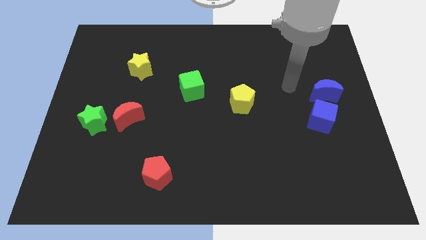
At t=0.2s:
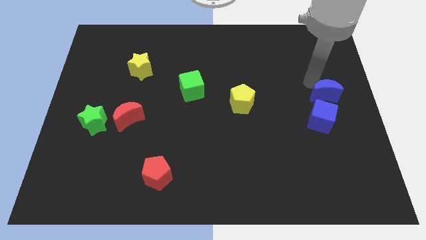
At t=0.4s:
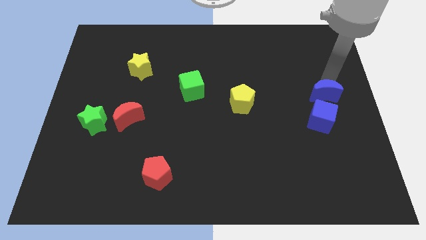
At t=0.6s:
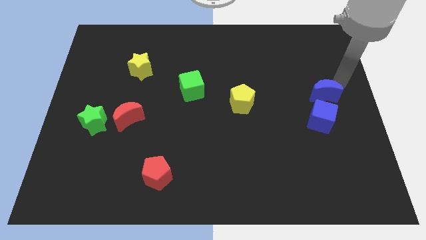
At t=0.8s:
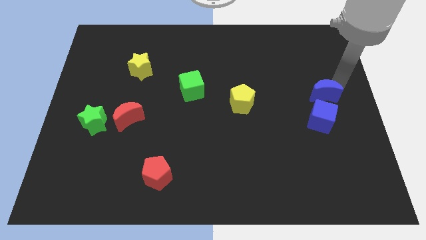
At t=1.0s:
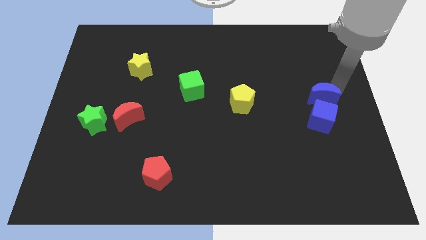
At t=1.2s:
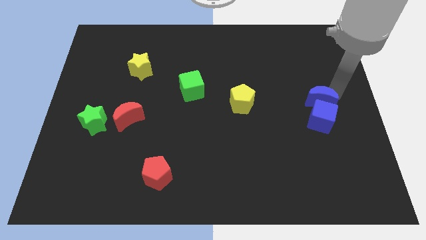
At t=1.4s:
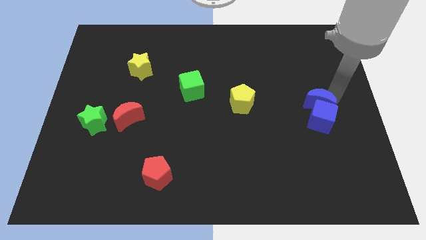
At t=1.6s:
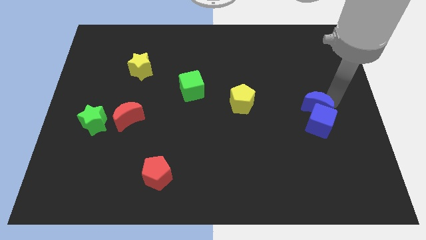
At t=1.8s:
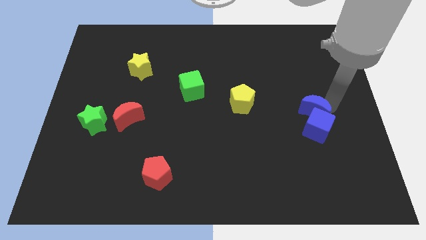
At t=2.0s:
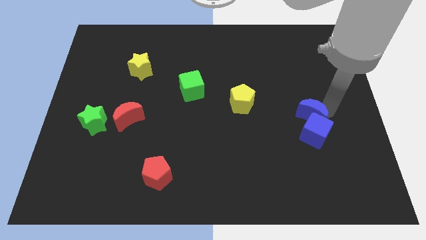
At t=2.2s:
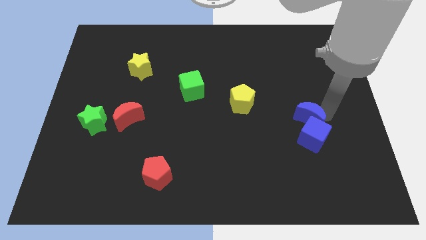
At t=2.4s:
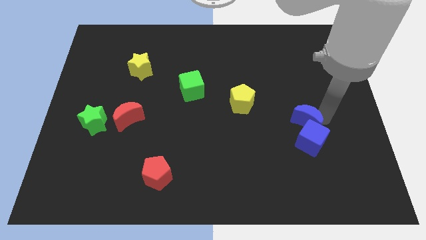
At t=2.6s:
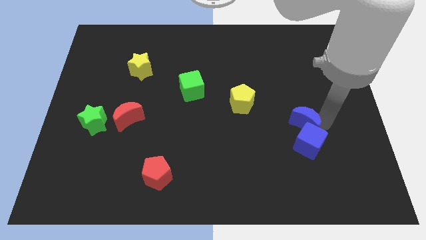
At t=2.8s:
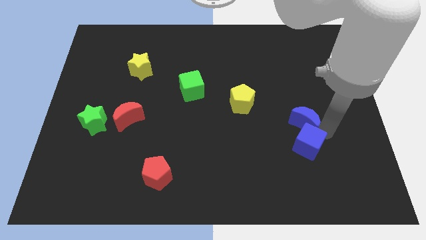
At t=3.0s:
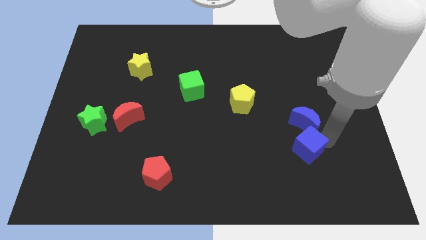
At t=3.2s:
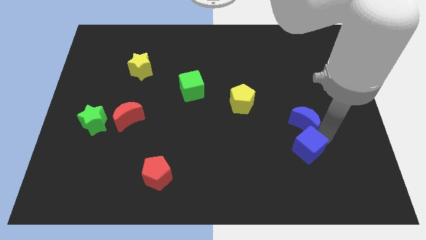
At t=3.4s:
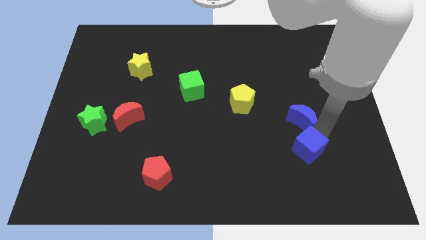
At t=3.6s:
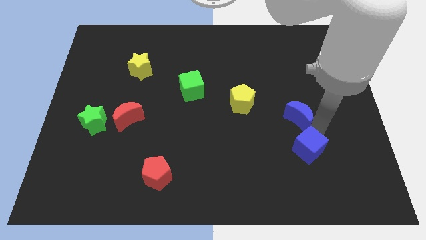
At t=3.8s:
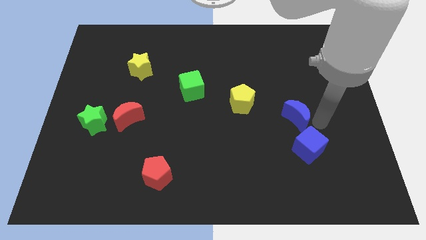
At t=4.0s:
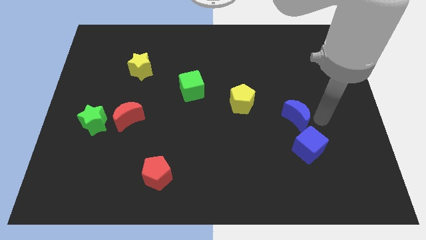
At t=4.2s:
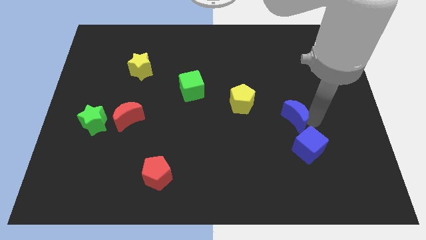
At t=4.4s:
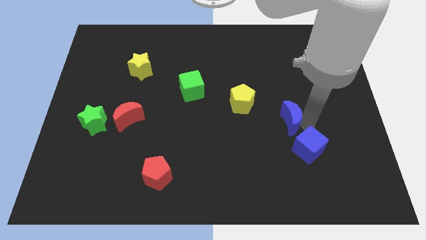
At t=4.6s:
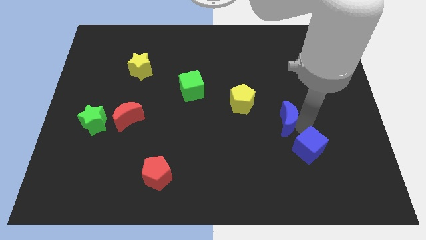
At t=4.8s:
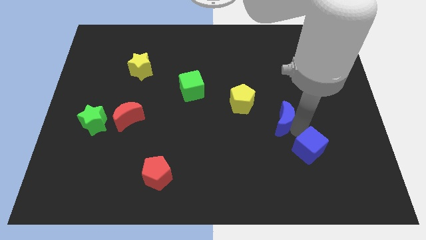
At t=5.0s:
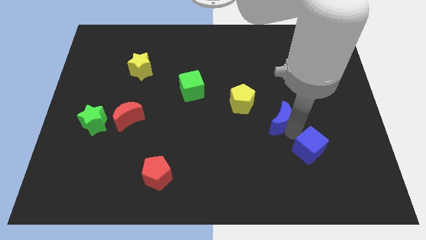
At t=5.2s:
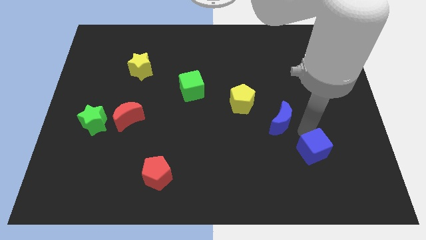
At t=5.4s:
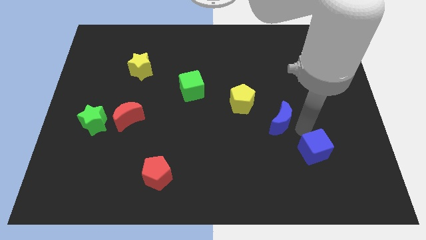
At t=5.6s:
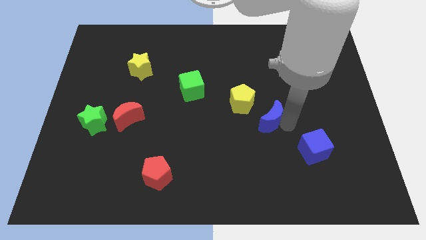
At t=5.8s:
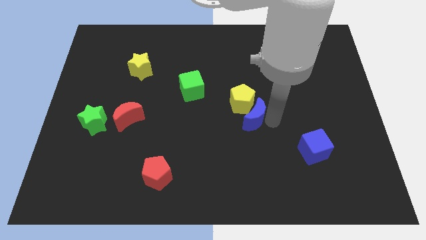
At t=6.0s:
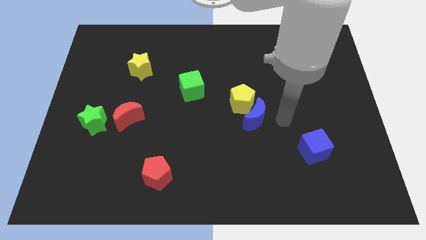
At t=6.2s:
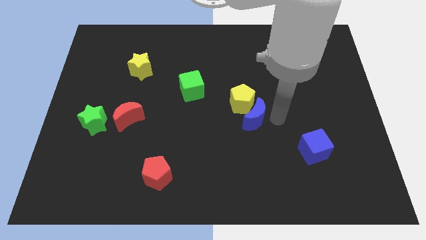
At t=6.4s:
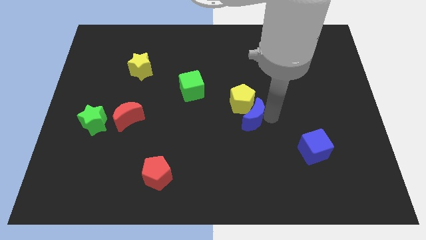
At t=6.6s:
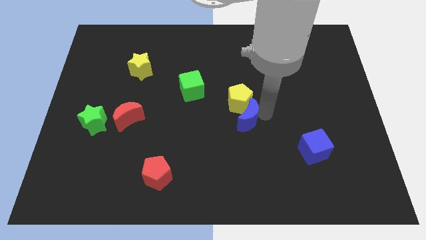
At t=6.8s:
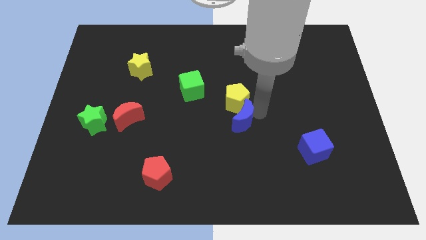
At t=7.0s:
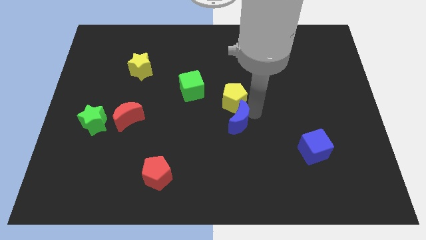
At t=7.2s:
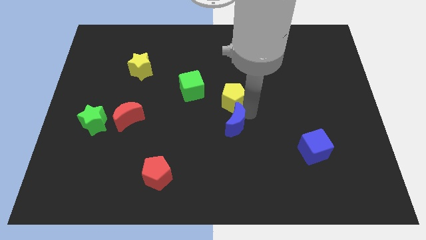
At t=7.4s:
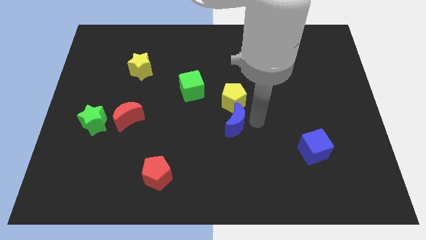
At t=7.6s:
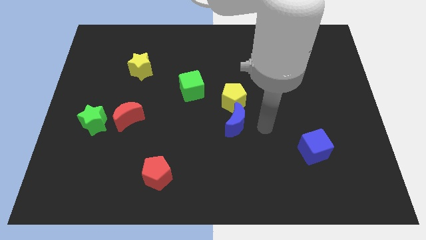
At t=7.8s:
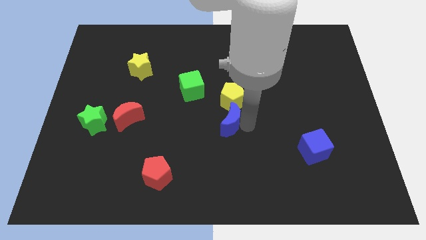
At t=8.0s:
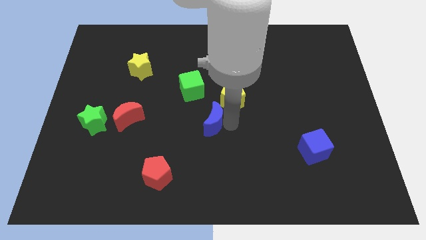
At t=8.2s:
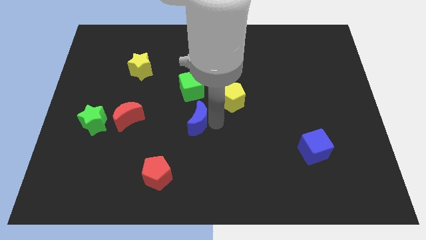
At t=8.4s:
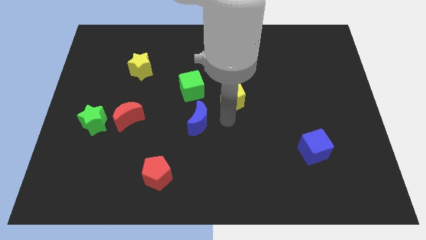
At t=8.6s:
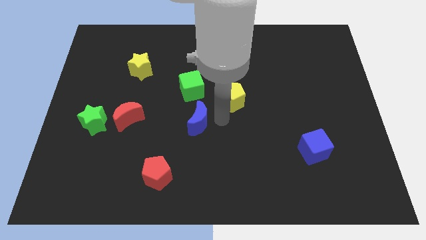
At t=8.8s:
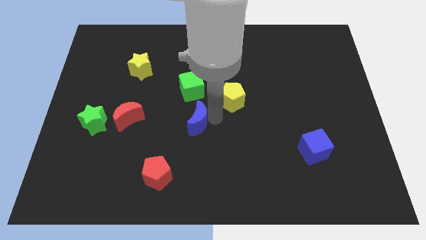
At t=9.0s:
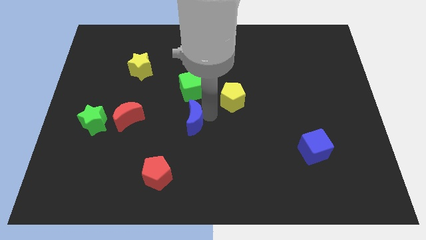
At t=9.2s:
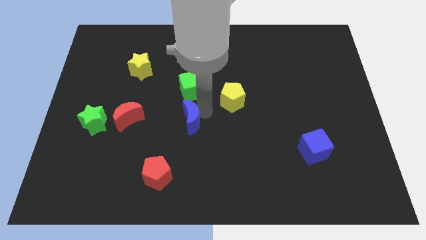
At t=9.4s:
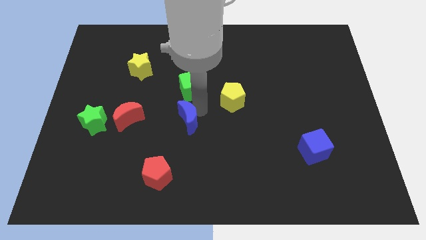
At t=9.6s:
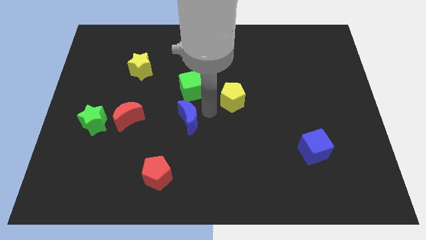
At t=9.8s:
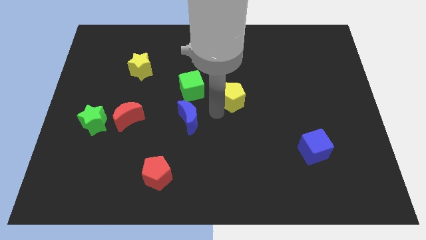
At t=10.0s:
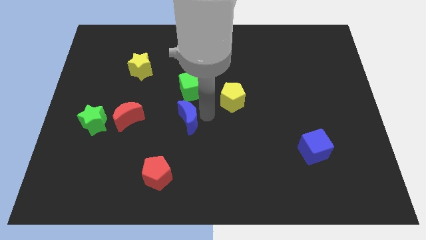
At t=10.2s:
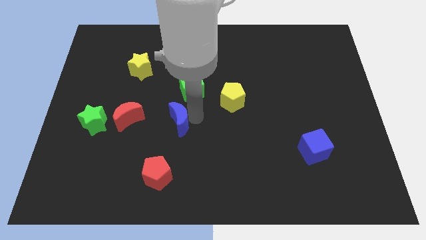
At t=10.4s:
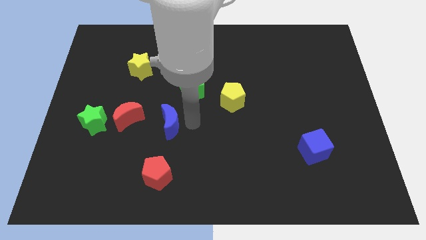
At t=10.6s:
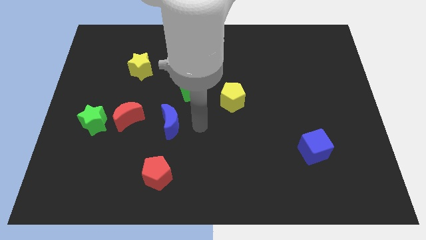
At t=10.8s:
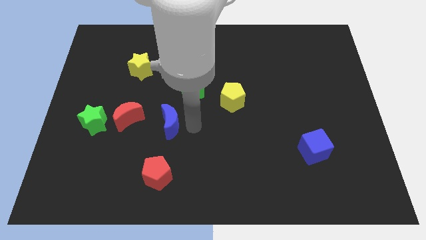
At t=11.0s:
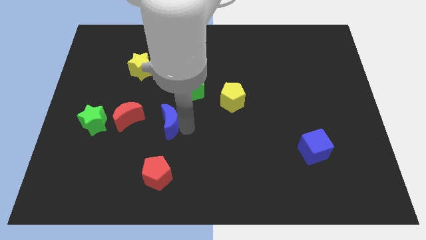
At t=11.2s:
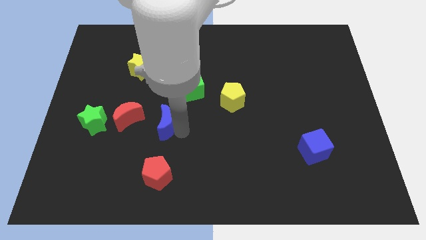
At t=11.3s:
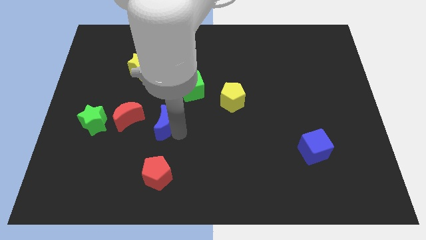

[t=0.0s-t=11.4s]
move the blue moon to the right side of the green star

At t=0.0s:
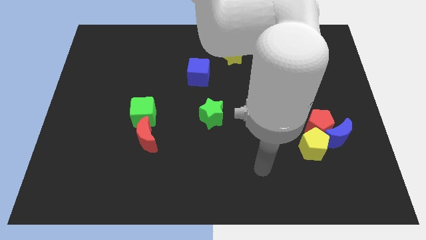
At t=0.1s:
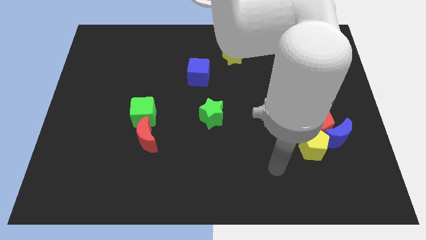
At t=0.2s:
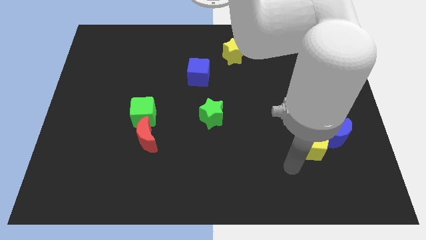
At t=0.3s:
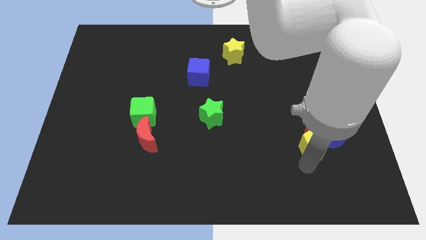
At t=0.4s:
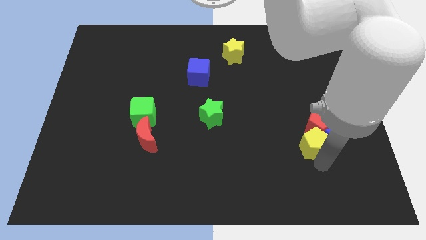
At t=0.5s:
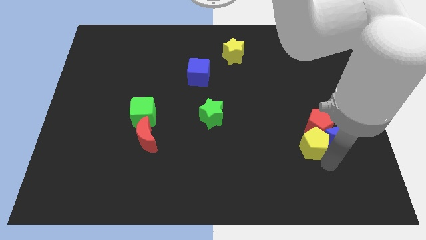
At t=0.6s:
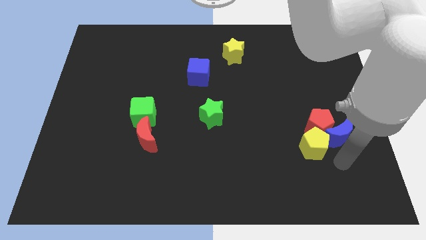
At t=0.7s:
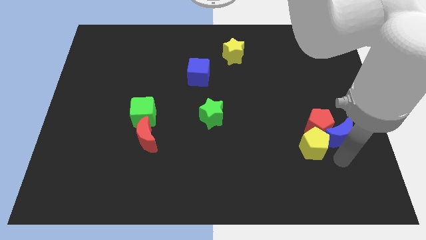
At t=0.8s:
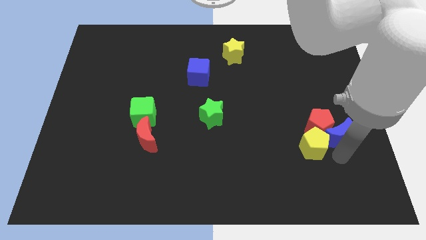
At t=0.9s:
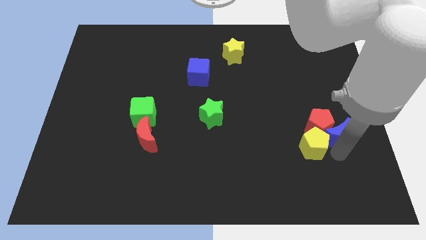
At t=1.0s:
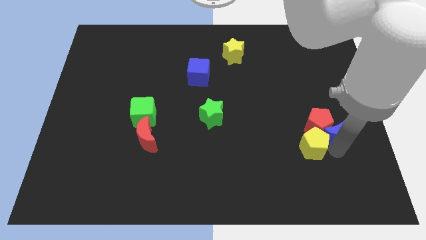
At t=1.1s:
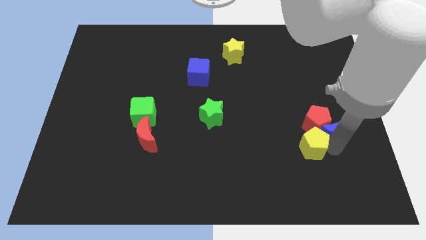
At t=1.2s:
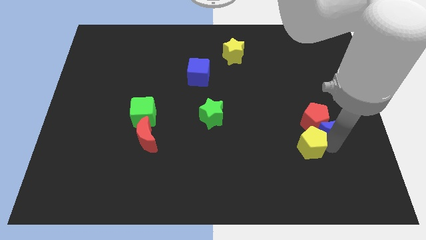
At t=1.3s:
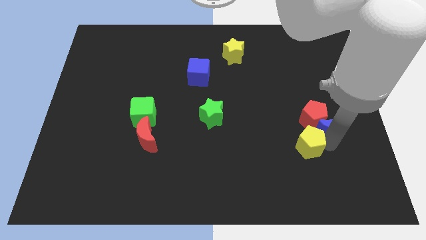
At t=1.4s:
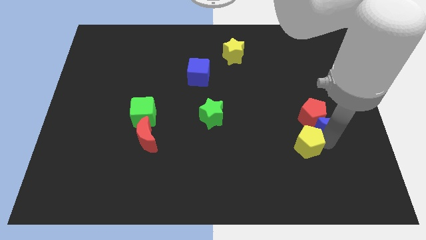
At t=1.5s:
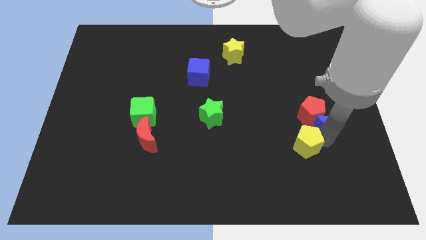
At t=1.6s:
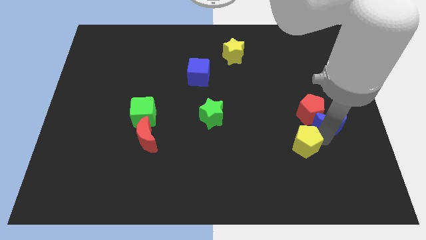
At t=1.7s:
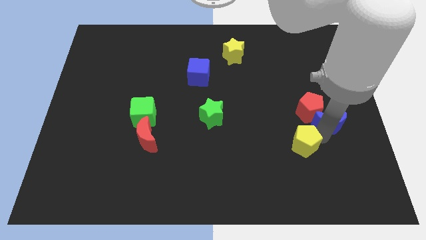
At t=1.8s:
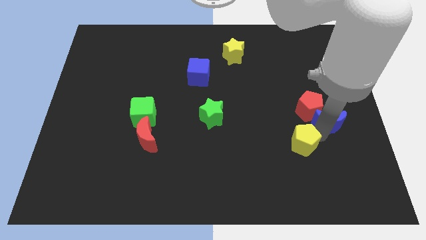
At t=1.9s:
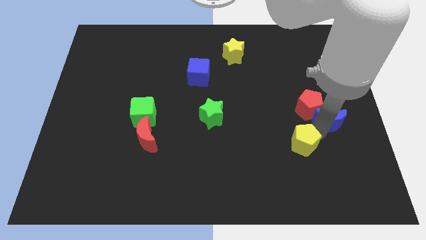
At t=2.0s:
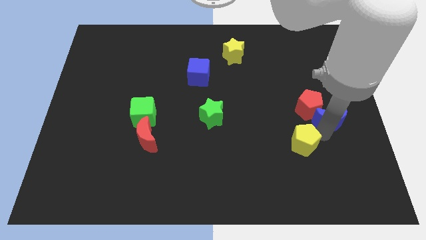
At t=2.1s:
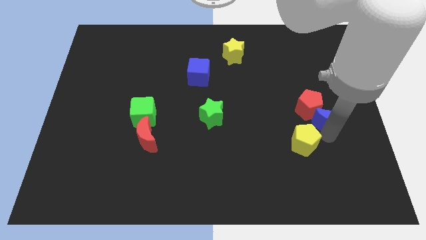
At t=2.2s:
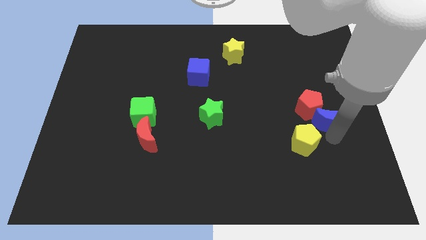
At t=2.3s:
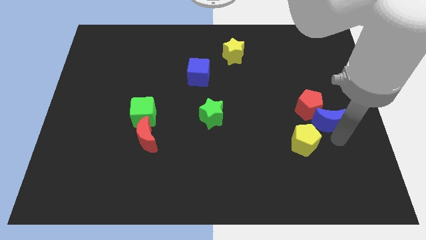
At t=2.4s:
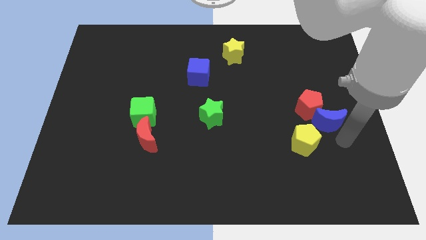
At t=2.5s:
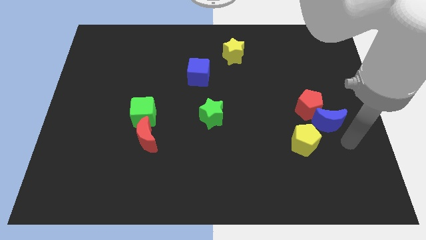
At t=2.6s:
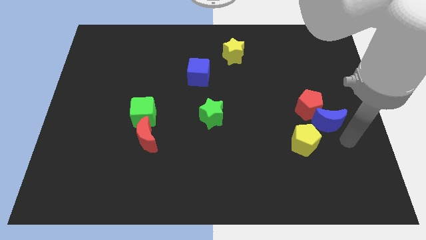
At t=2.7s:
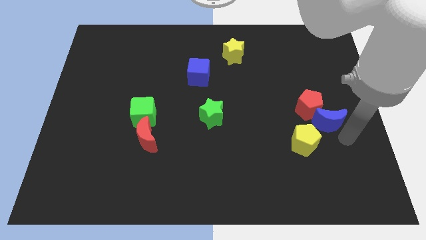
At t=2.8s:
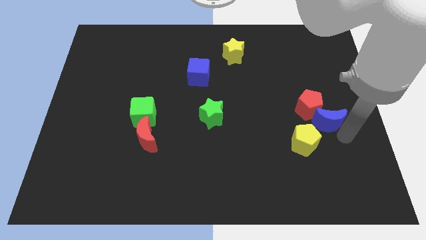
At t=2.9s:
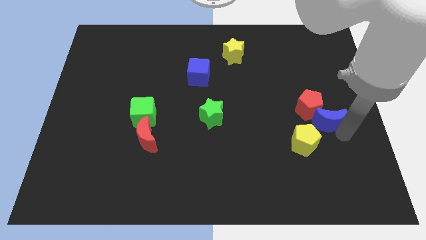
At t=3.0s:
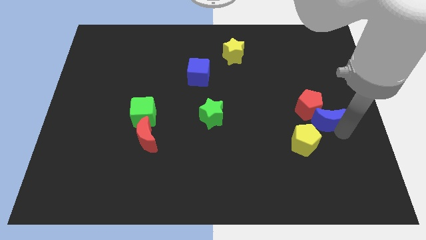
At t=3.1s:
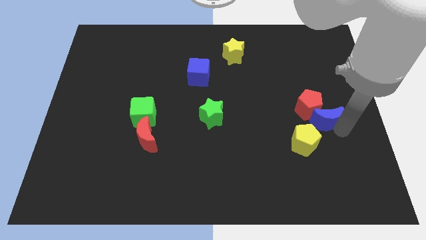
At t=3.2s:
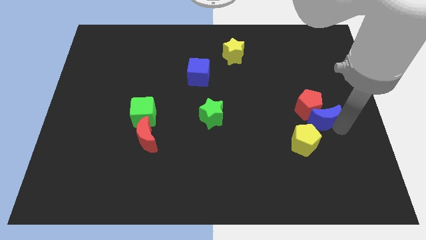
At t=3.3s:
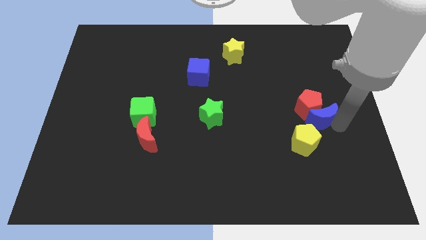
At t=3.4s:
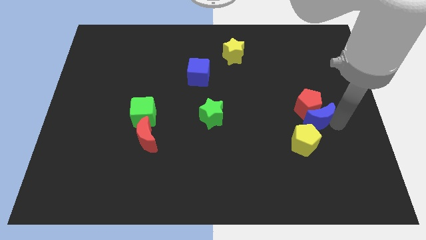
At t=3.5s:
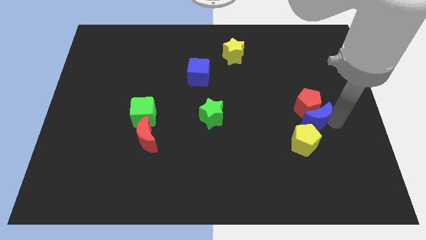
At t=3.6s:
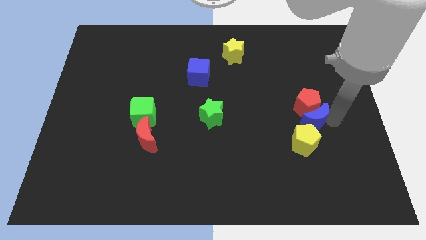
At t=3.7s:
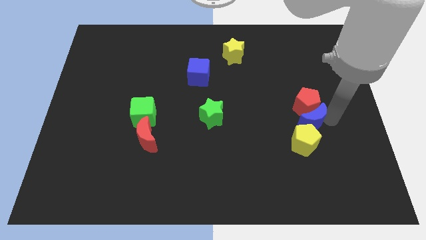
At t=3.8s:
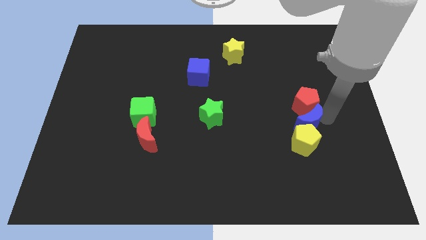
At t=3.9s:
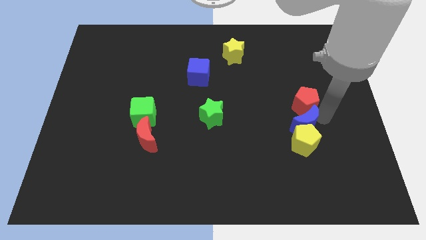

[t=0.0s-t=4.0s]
slide the blue moon diagonally up and to the left of the yellow pentagon
